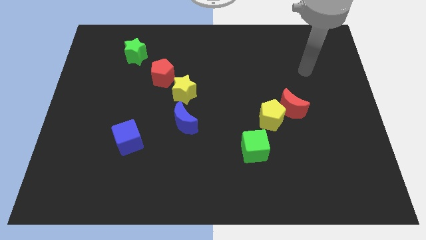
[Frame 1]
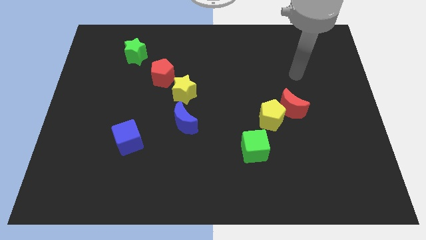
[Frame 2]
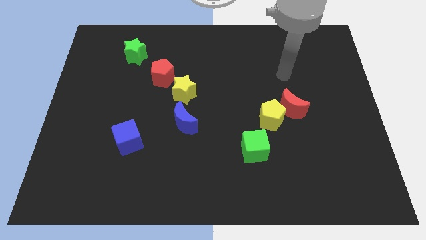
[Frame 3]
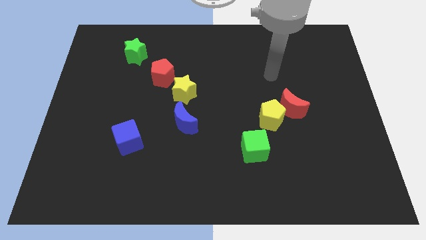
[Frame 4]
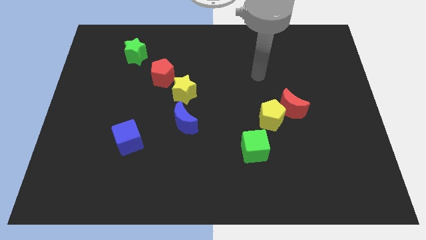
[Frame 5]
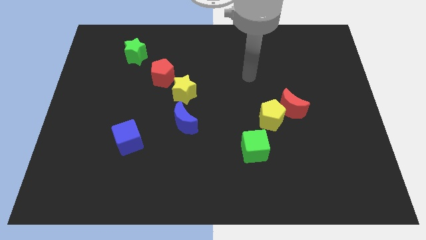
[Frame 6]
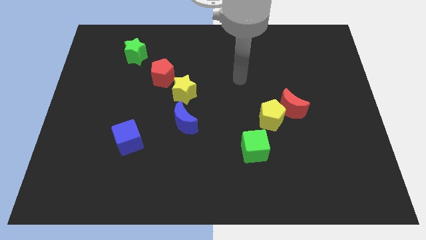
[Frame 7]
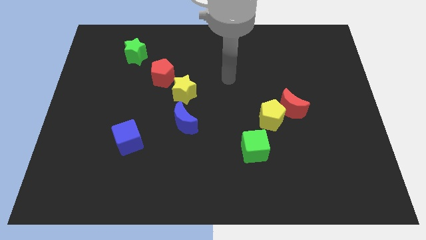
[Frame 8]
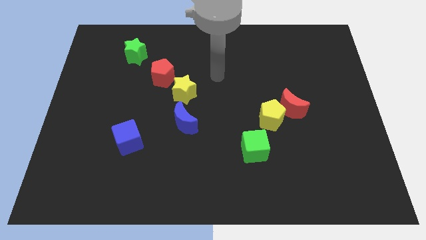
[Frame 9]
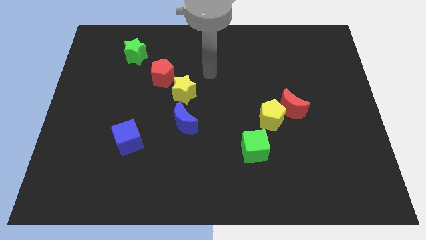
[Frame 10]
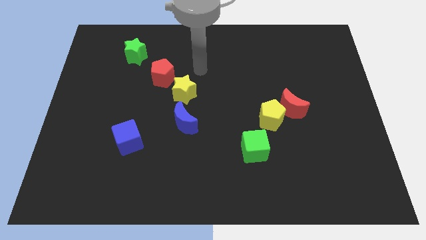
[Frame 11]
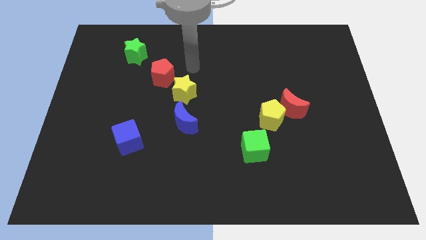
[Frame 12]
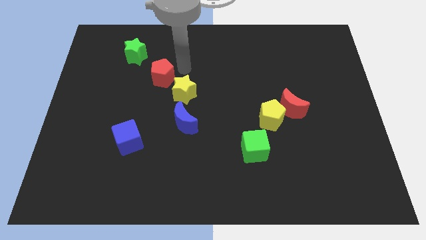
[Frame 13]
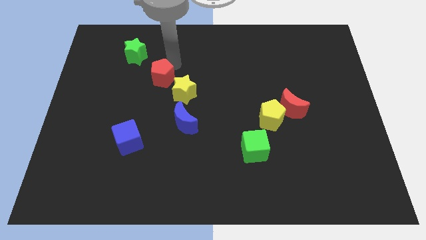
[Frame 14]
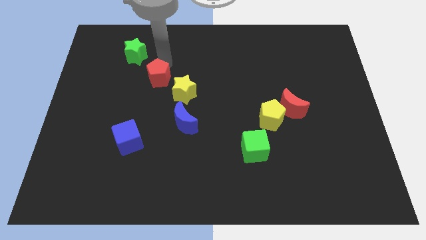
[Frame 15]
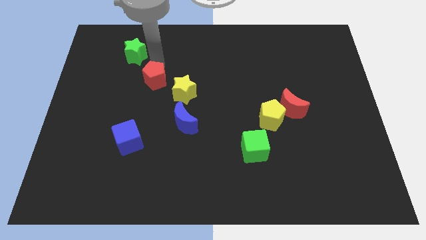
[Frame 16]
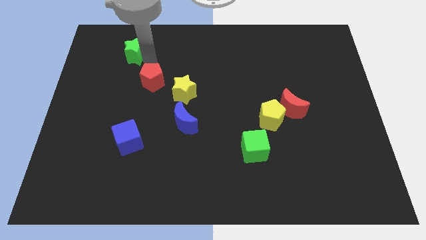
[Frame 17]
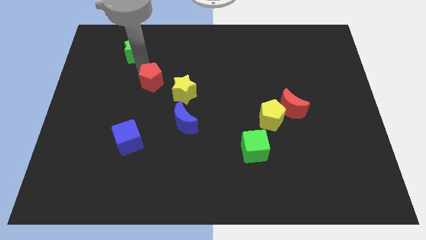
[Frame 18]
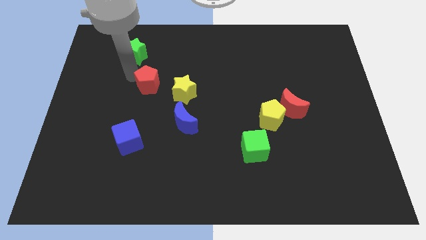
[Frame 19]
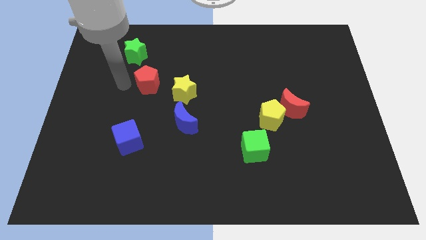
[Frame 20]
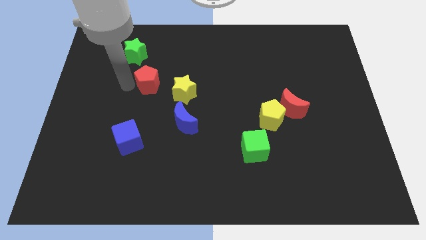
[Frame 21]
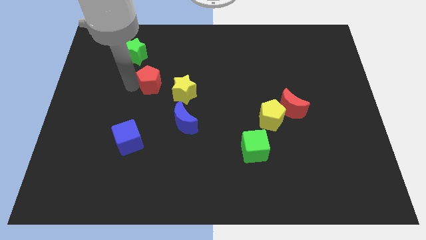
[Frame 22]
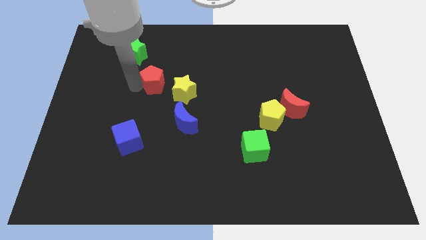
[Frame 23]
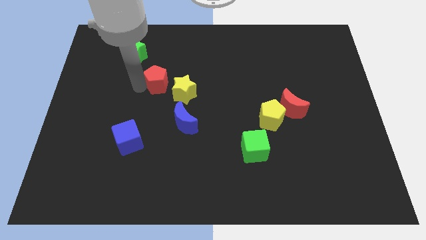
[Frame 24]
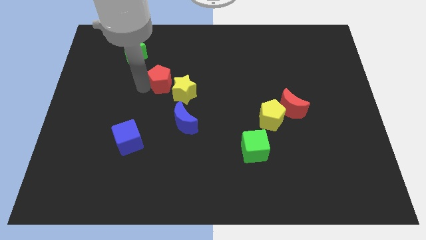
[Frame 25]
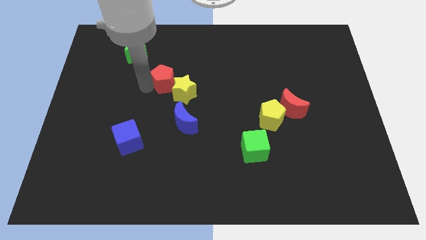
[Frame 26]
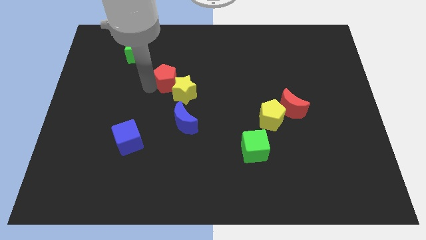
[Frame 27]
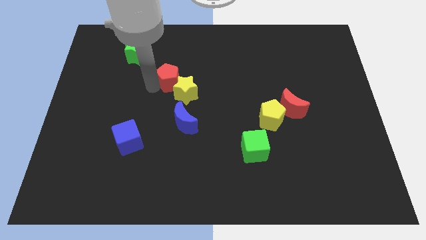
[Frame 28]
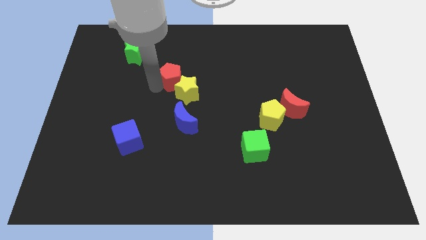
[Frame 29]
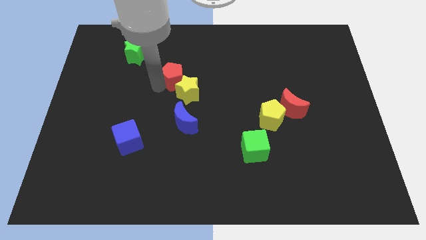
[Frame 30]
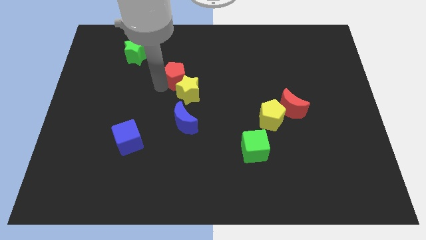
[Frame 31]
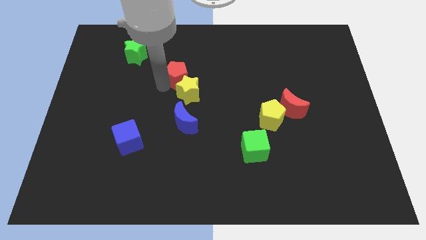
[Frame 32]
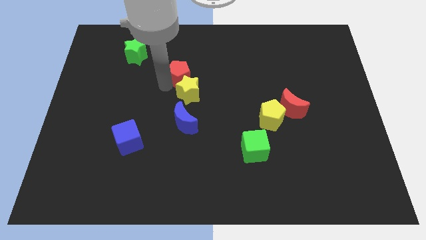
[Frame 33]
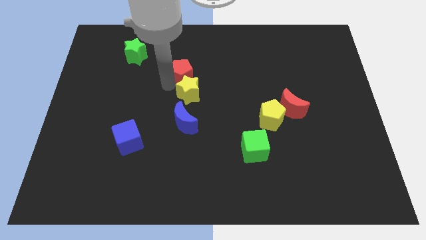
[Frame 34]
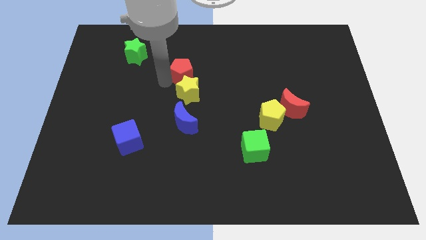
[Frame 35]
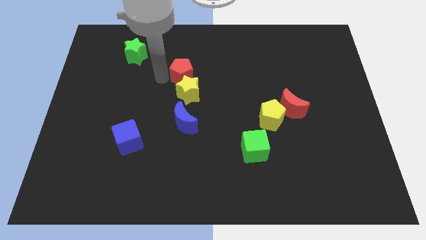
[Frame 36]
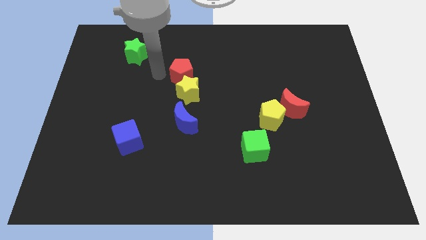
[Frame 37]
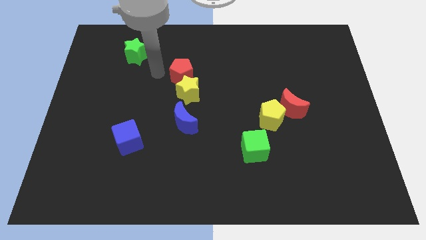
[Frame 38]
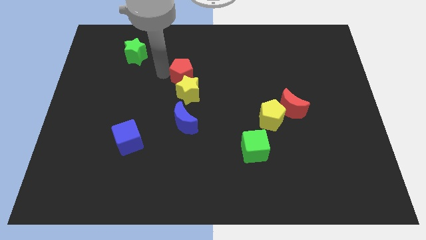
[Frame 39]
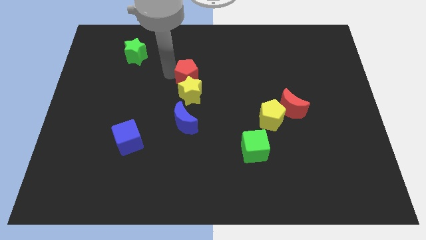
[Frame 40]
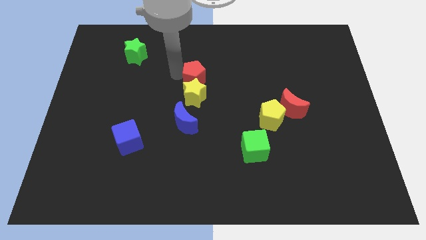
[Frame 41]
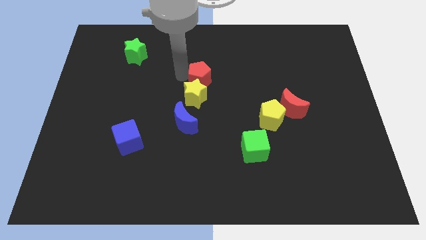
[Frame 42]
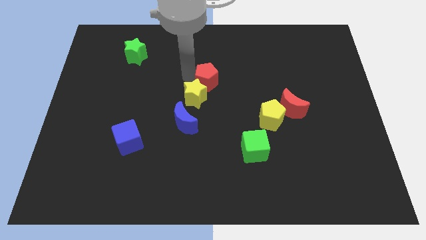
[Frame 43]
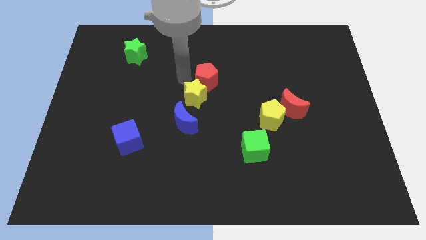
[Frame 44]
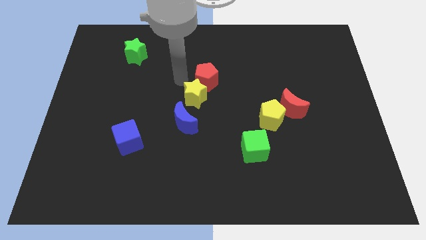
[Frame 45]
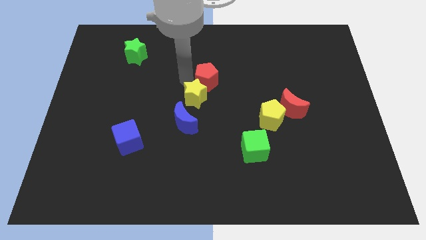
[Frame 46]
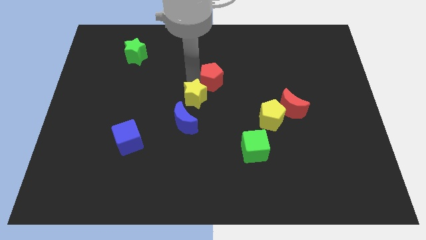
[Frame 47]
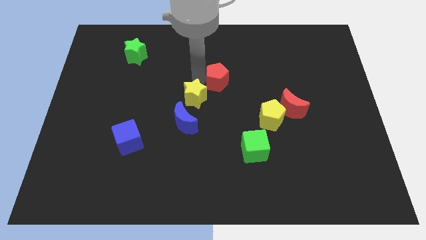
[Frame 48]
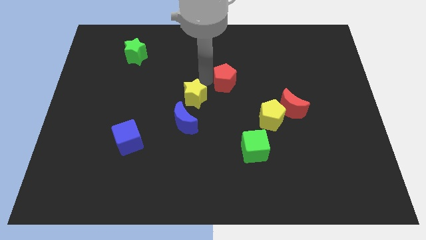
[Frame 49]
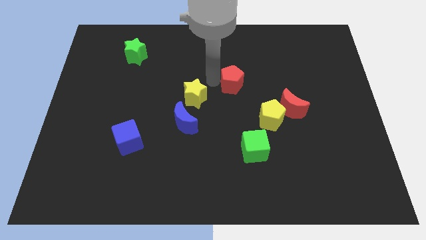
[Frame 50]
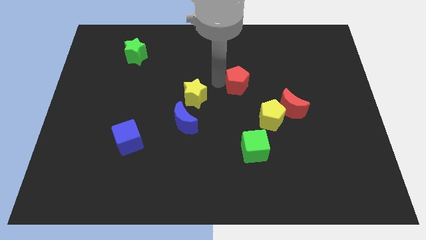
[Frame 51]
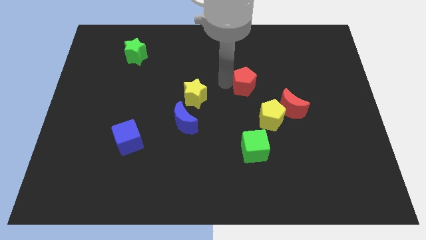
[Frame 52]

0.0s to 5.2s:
slide the red pentagon right

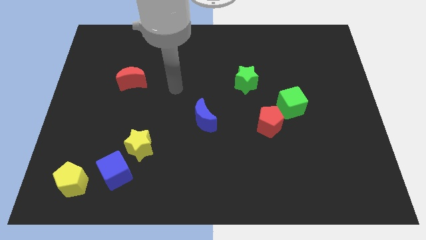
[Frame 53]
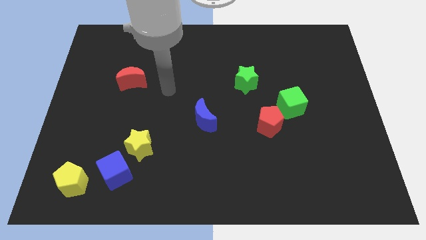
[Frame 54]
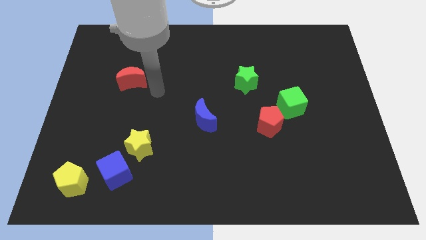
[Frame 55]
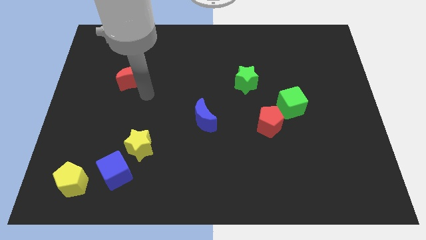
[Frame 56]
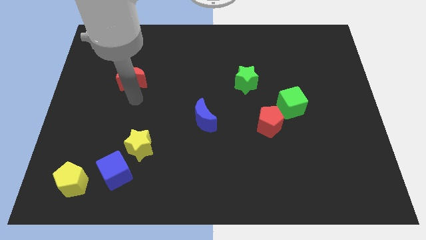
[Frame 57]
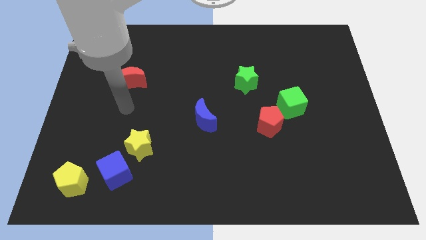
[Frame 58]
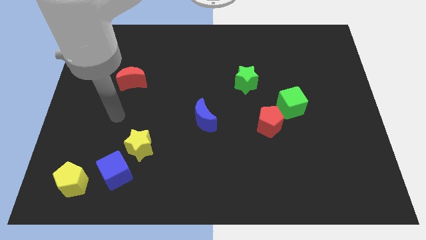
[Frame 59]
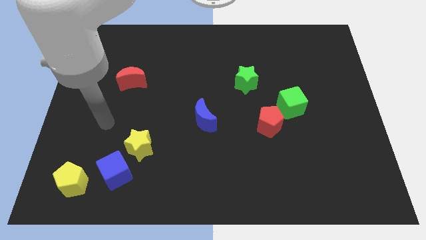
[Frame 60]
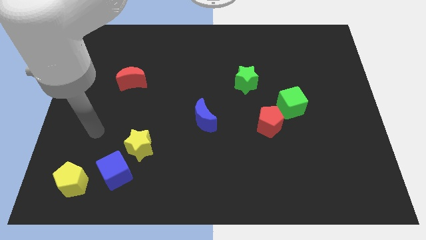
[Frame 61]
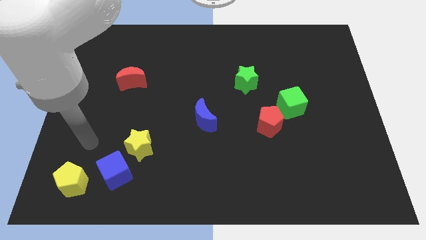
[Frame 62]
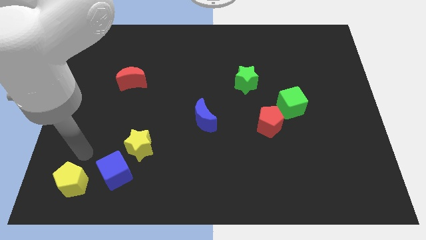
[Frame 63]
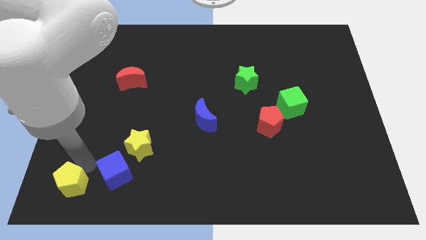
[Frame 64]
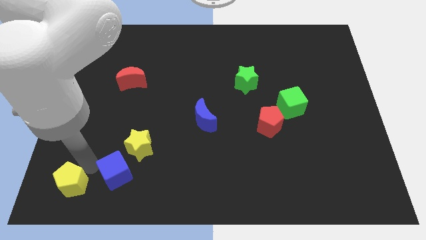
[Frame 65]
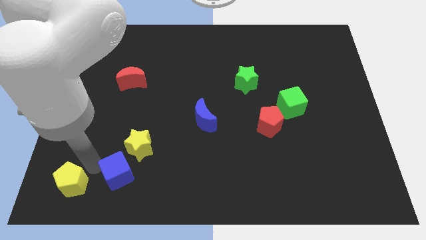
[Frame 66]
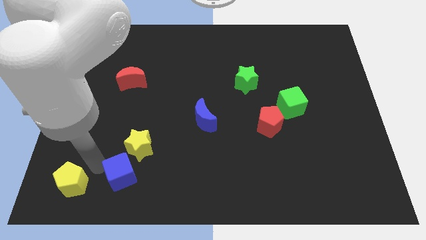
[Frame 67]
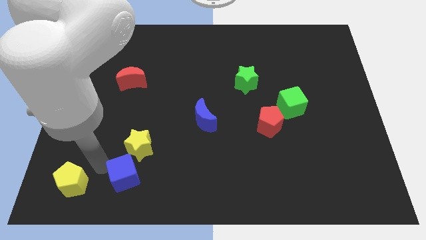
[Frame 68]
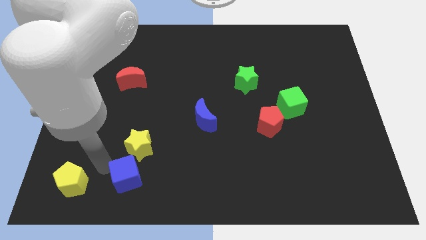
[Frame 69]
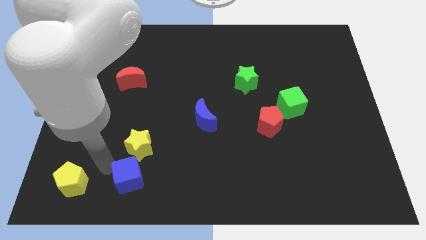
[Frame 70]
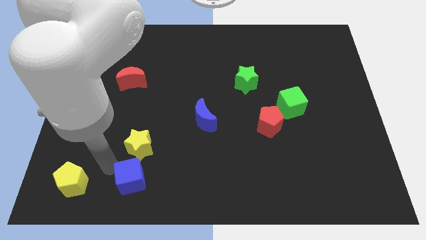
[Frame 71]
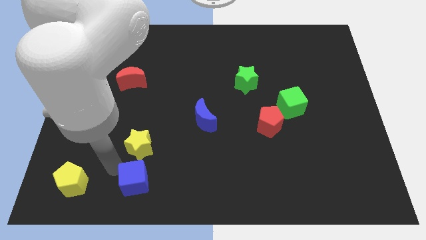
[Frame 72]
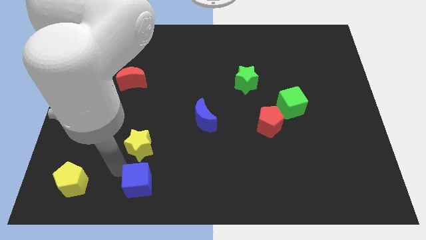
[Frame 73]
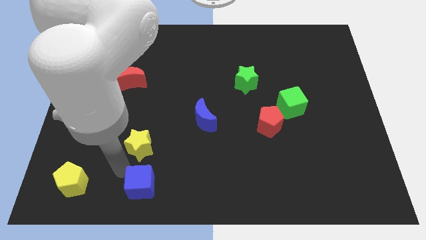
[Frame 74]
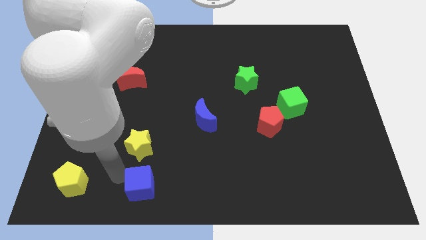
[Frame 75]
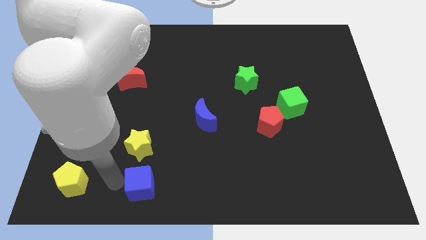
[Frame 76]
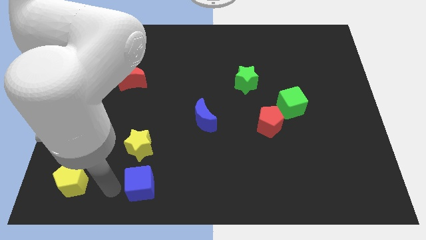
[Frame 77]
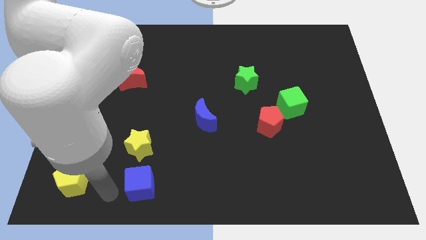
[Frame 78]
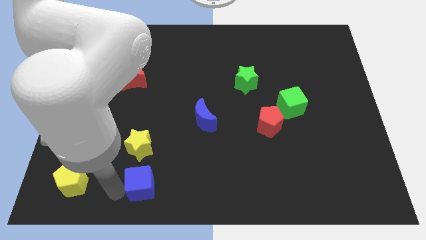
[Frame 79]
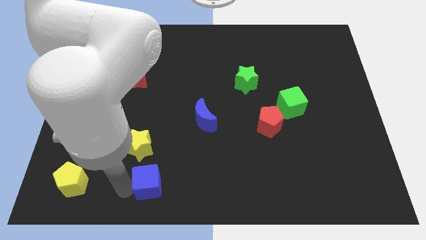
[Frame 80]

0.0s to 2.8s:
push the blue cube somewhat right
